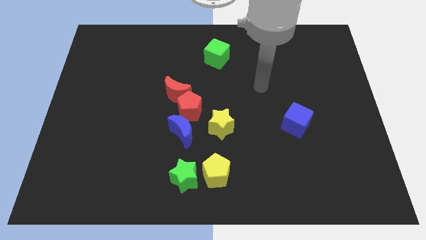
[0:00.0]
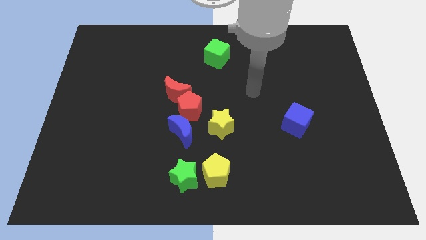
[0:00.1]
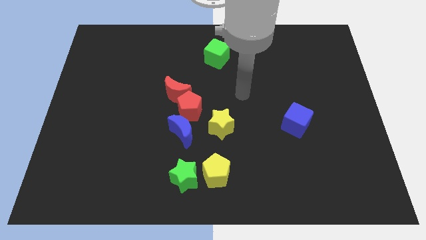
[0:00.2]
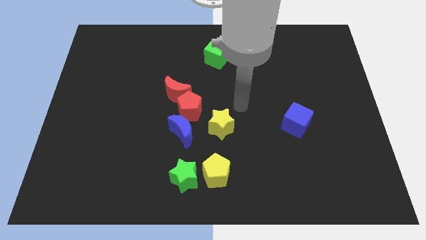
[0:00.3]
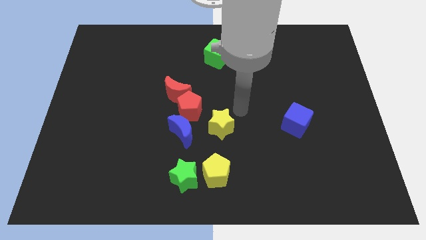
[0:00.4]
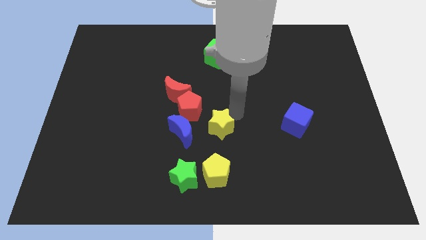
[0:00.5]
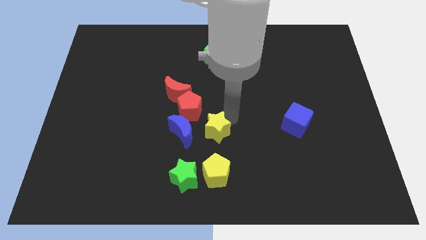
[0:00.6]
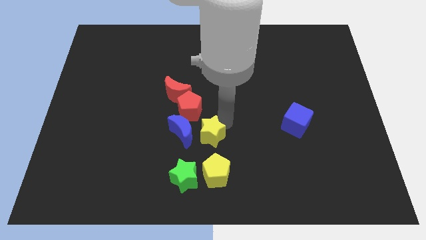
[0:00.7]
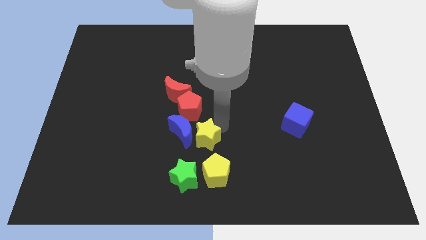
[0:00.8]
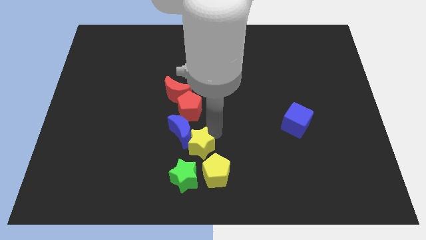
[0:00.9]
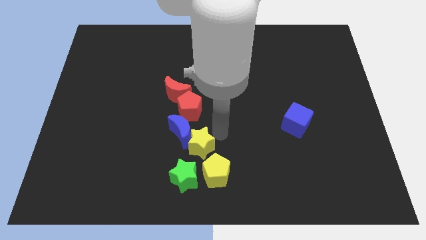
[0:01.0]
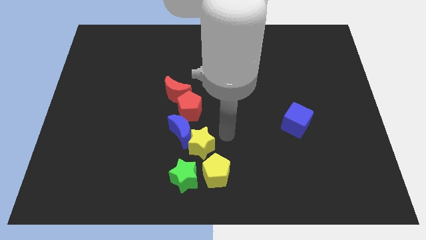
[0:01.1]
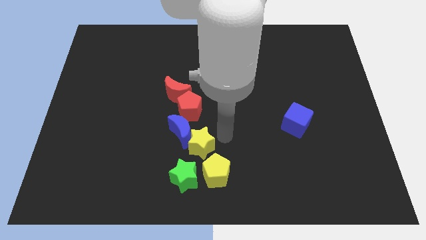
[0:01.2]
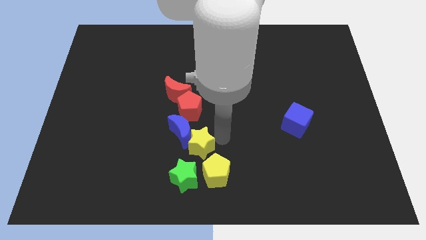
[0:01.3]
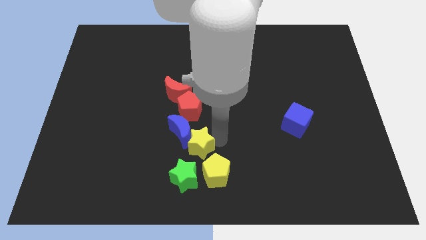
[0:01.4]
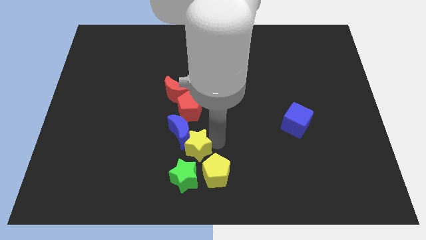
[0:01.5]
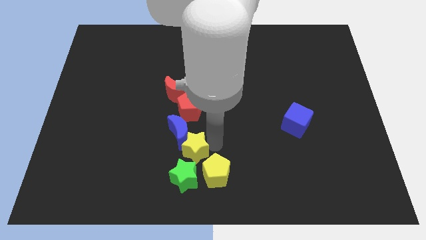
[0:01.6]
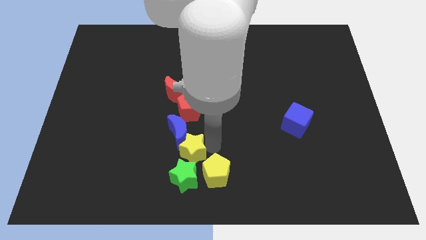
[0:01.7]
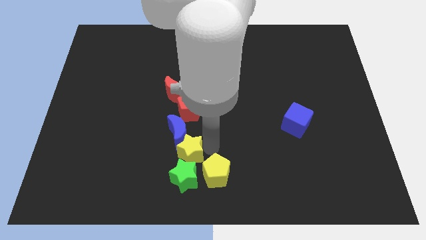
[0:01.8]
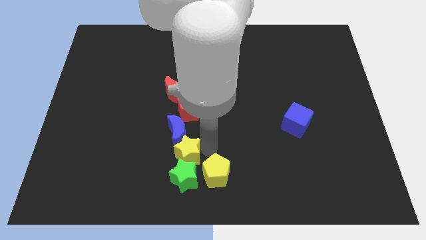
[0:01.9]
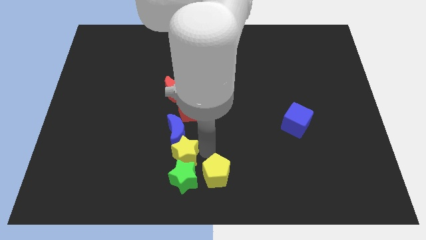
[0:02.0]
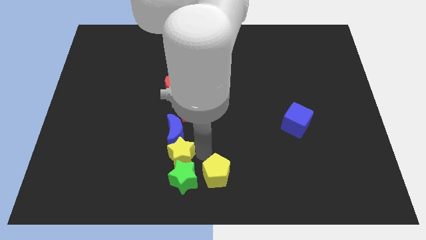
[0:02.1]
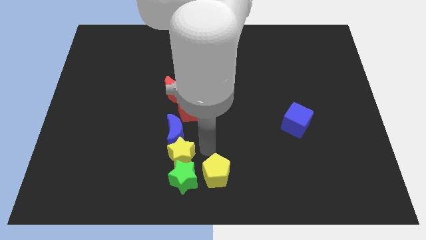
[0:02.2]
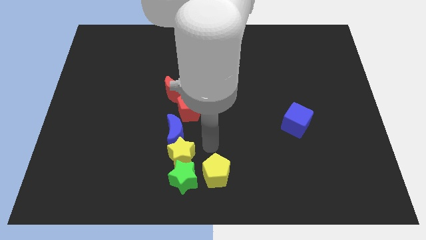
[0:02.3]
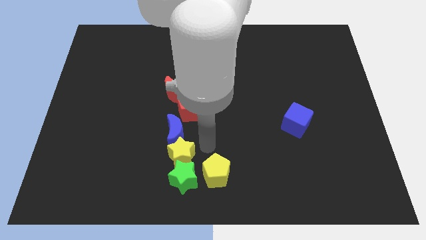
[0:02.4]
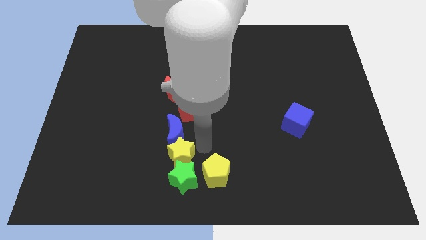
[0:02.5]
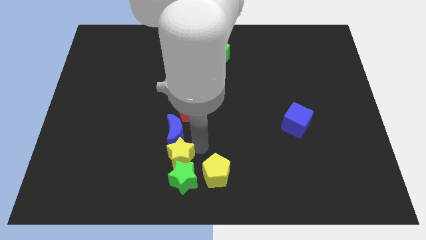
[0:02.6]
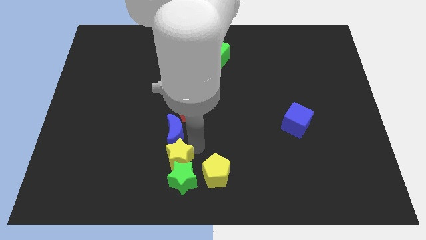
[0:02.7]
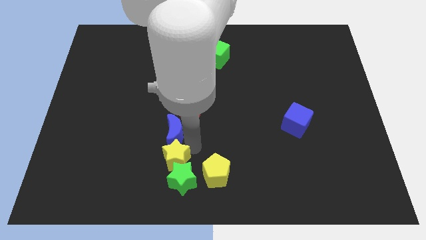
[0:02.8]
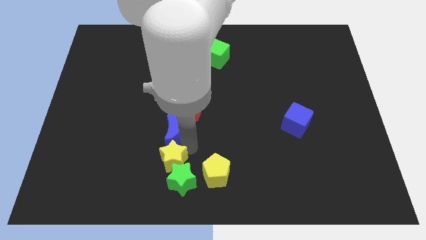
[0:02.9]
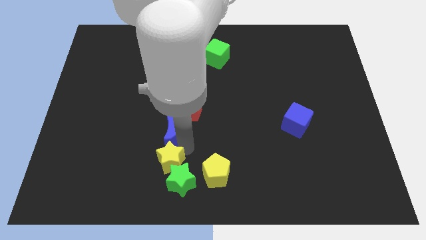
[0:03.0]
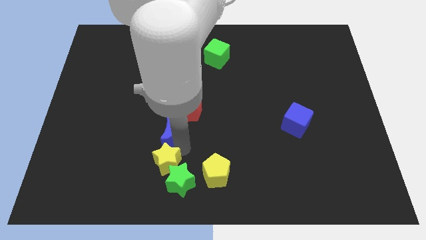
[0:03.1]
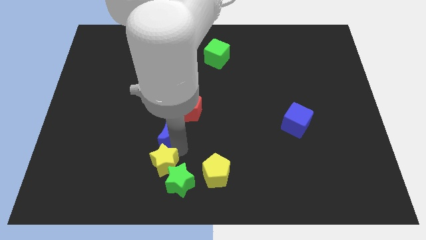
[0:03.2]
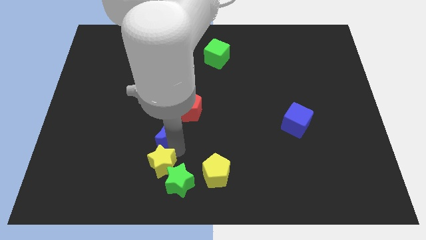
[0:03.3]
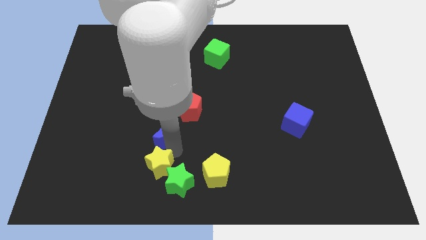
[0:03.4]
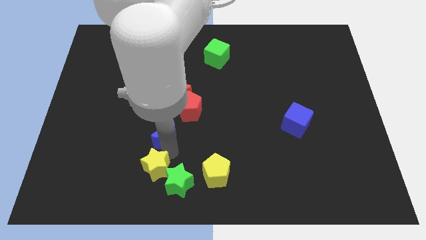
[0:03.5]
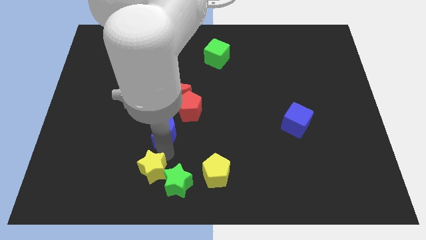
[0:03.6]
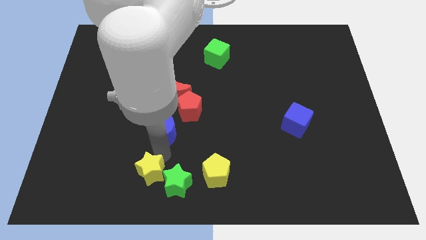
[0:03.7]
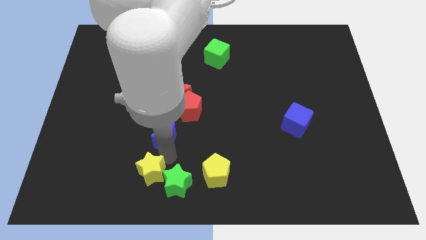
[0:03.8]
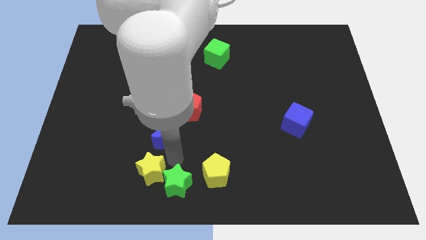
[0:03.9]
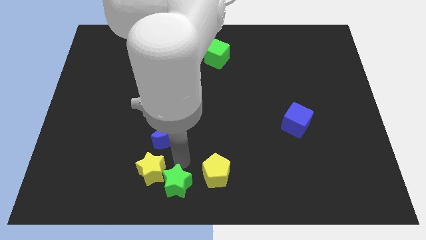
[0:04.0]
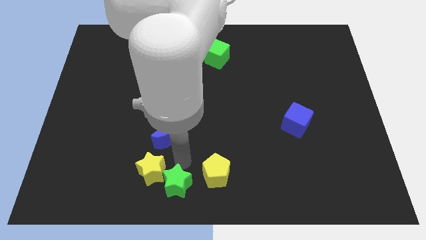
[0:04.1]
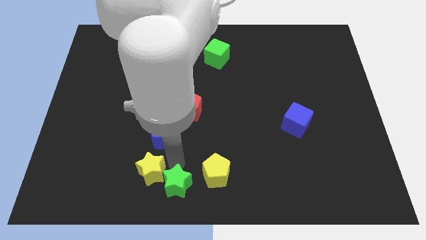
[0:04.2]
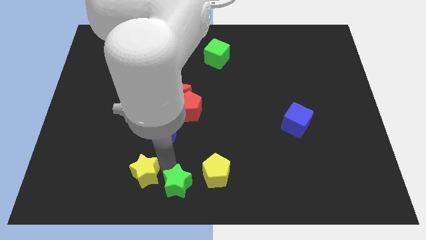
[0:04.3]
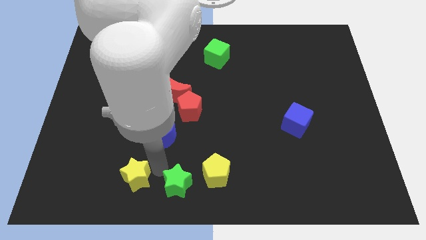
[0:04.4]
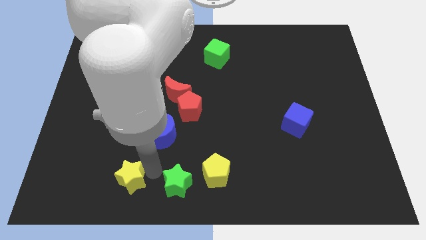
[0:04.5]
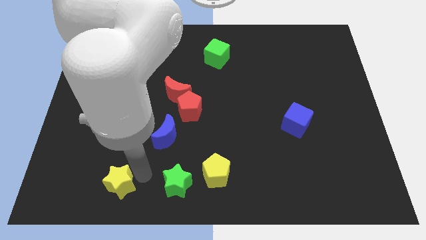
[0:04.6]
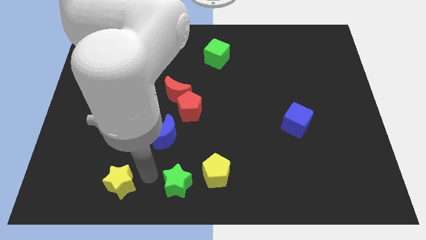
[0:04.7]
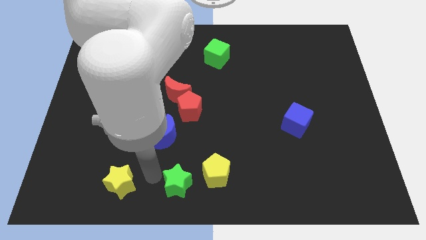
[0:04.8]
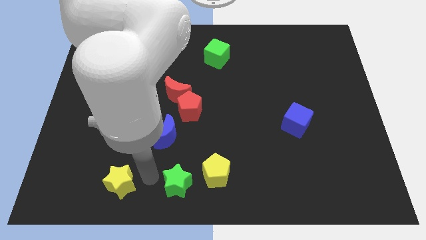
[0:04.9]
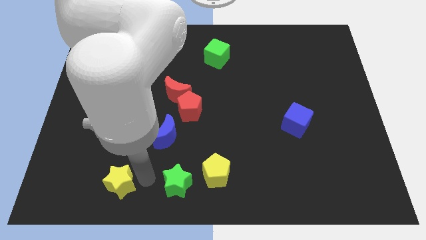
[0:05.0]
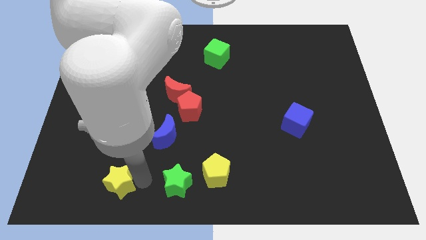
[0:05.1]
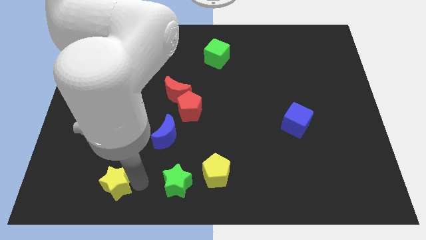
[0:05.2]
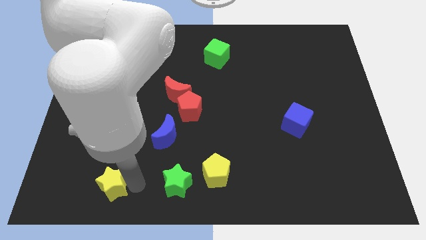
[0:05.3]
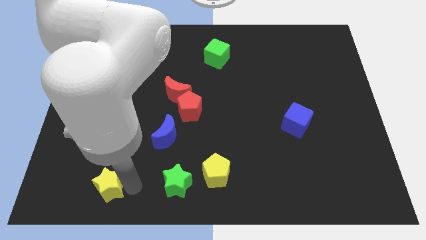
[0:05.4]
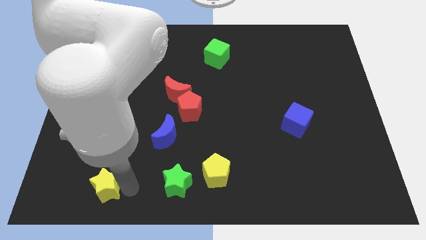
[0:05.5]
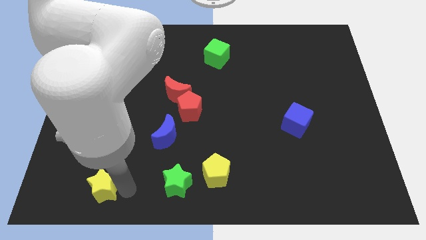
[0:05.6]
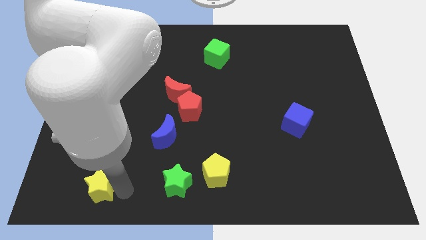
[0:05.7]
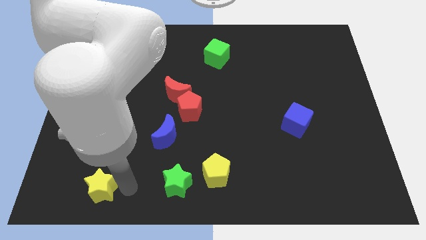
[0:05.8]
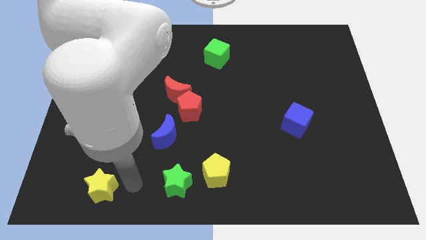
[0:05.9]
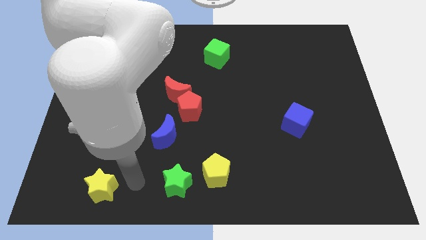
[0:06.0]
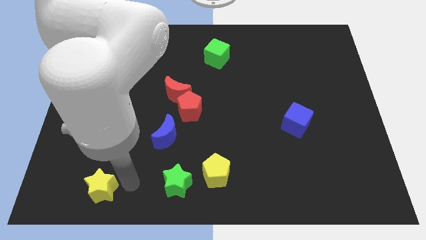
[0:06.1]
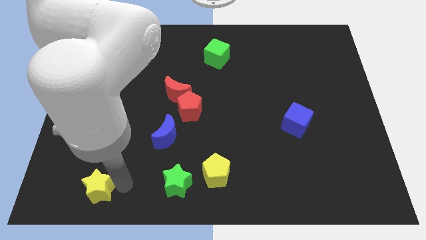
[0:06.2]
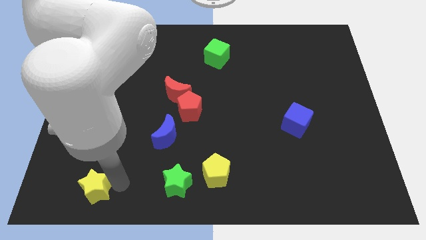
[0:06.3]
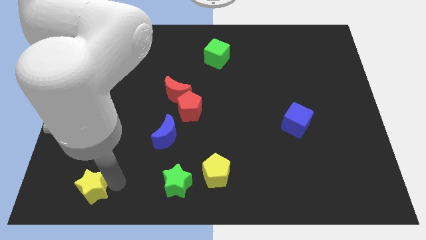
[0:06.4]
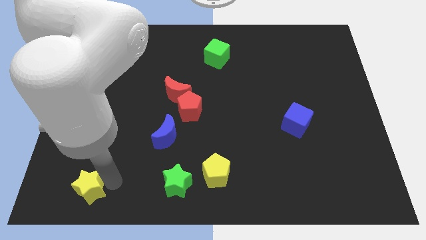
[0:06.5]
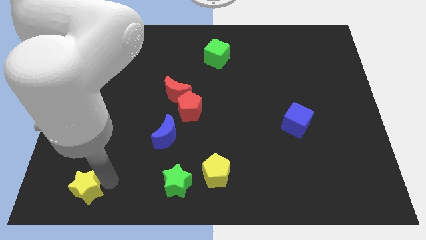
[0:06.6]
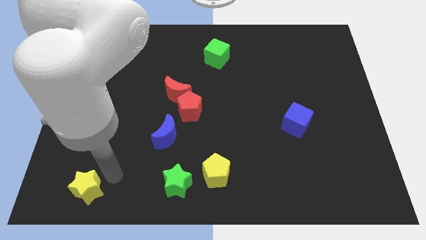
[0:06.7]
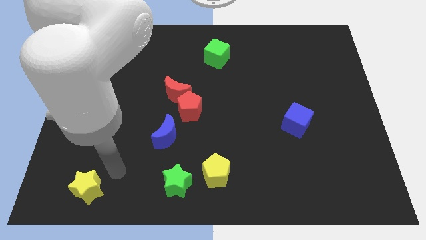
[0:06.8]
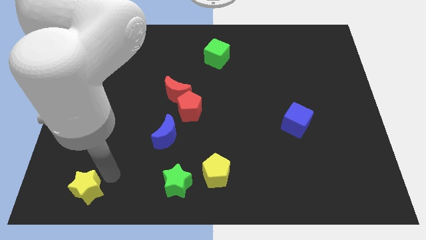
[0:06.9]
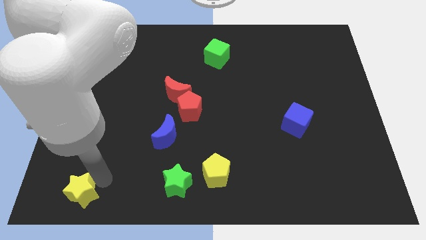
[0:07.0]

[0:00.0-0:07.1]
put the yellow star to the bottom left corner
